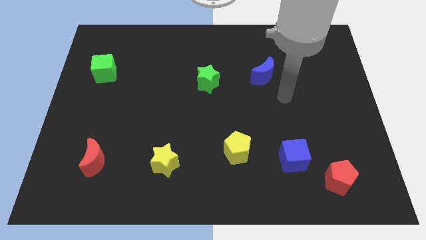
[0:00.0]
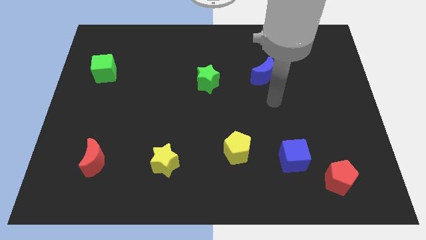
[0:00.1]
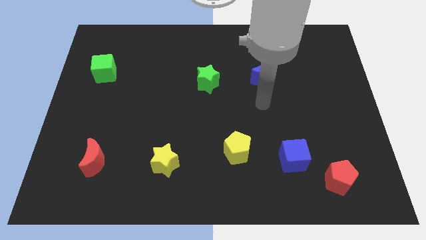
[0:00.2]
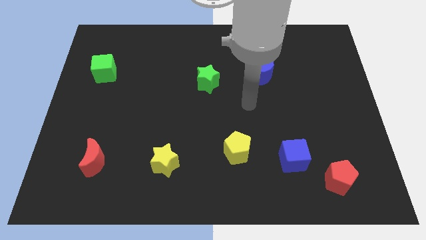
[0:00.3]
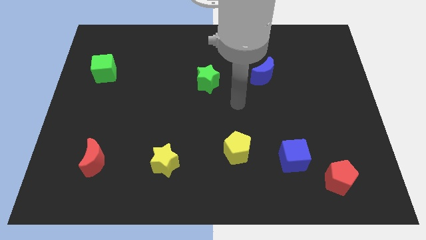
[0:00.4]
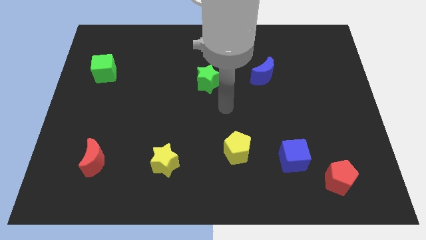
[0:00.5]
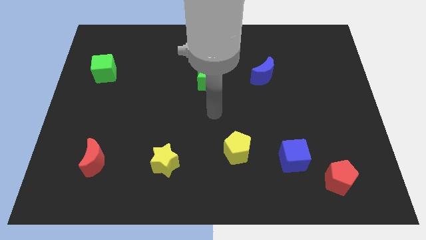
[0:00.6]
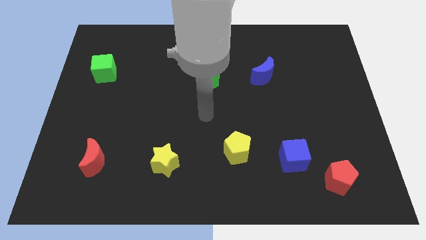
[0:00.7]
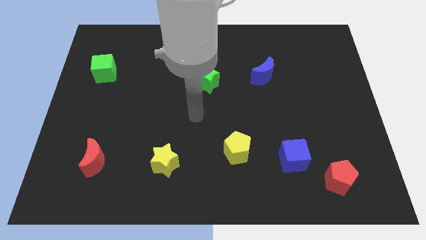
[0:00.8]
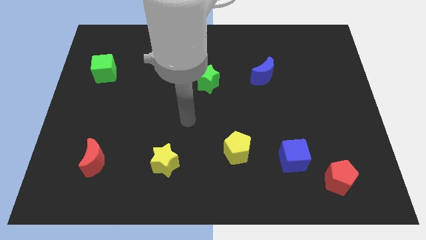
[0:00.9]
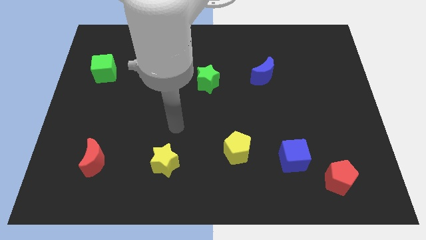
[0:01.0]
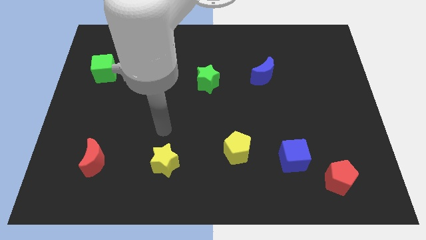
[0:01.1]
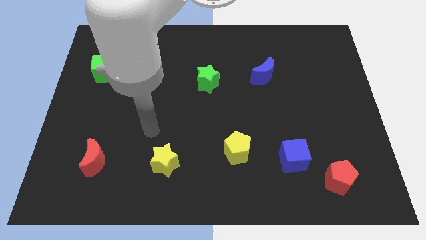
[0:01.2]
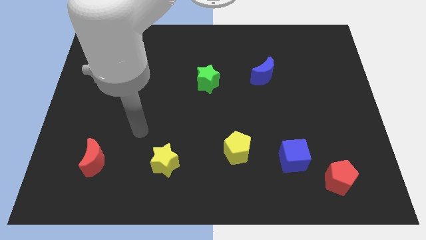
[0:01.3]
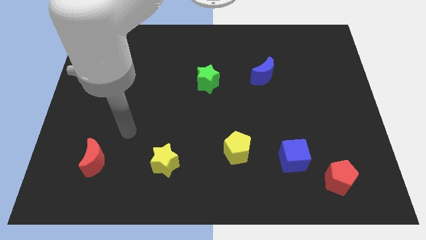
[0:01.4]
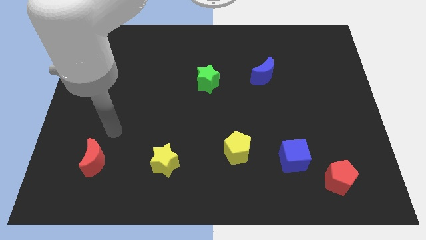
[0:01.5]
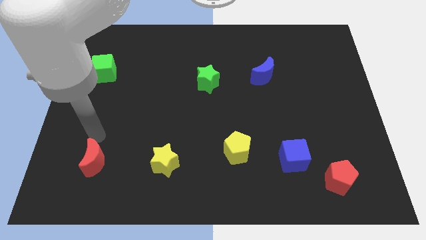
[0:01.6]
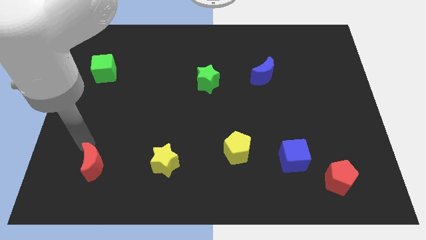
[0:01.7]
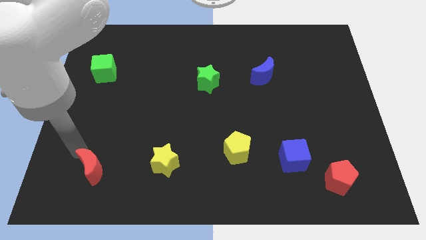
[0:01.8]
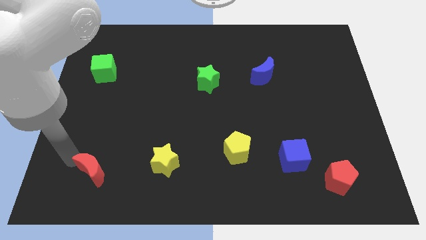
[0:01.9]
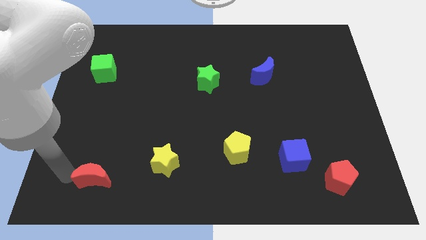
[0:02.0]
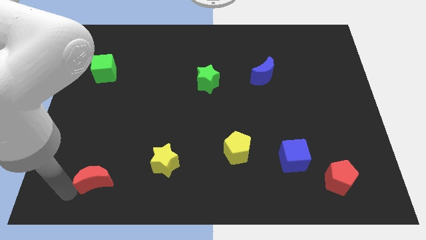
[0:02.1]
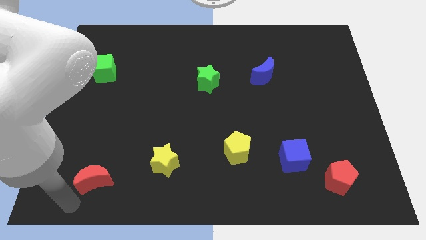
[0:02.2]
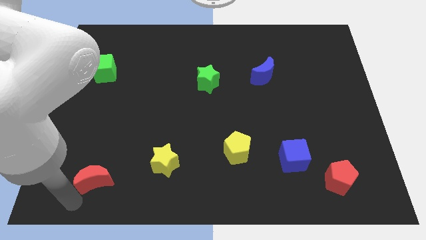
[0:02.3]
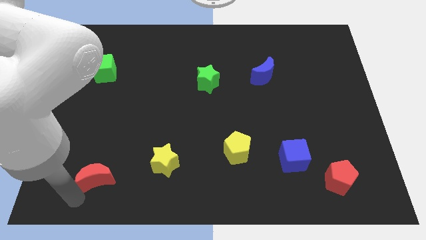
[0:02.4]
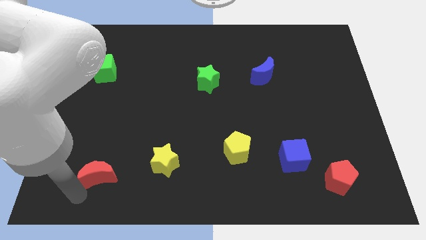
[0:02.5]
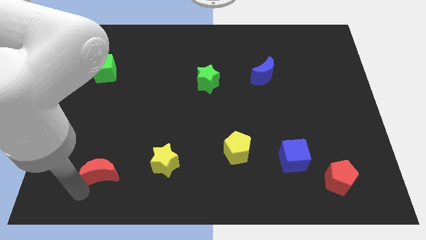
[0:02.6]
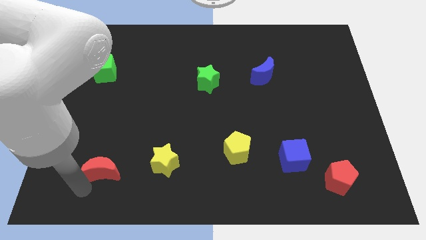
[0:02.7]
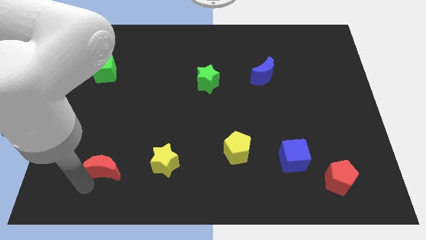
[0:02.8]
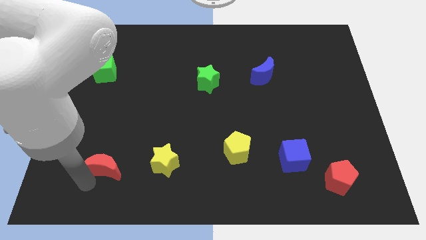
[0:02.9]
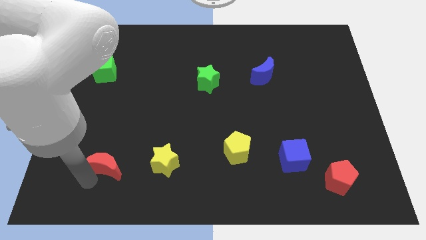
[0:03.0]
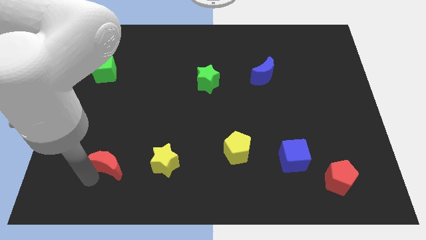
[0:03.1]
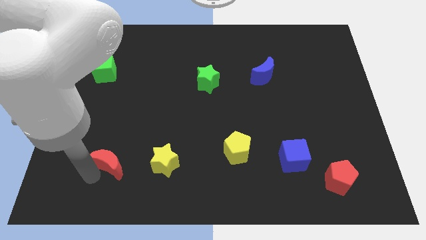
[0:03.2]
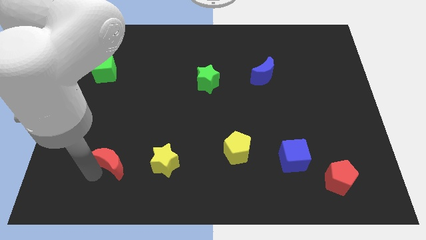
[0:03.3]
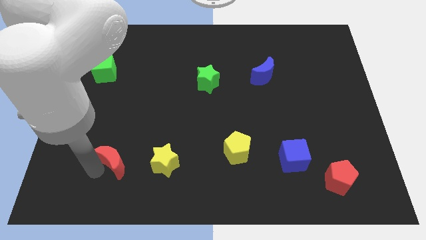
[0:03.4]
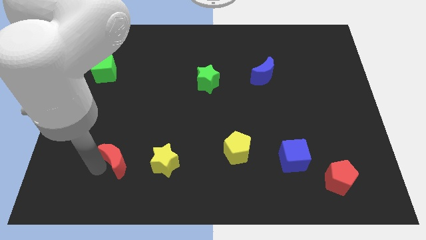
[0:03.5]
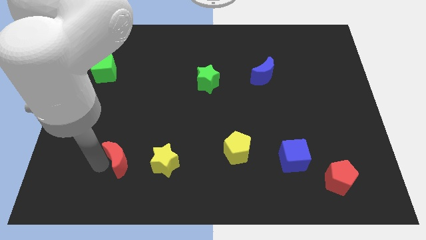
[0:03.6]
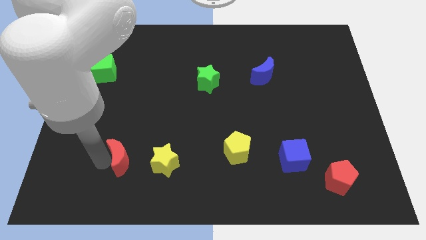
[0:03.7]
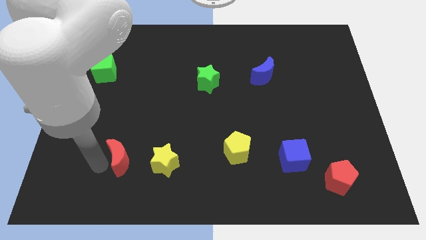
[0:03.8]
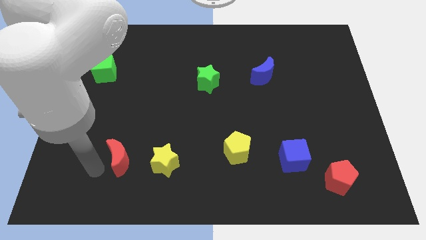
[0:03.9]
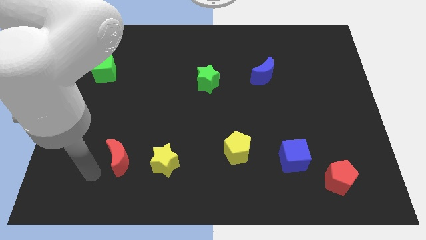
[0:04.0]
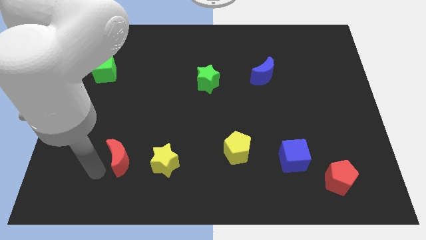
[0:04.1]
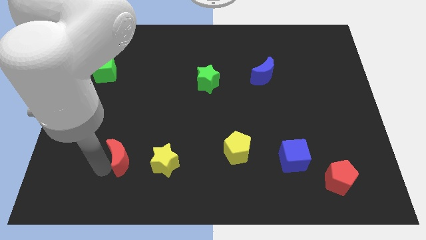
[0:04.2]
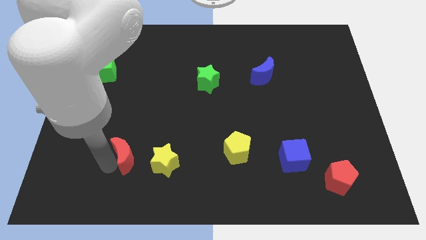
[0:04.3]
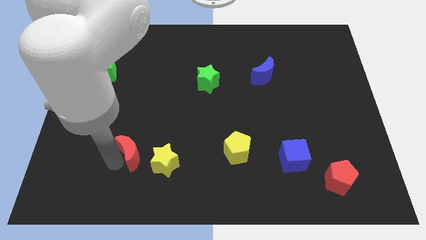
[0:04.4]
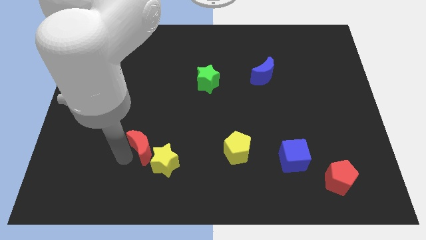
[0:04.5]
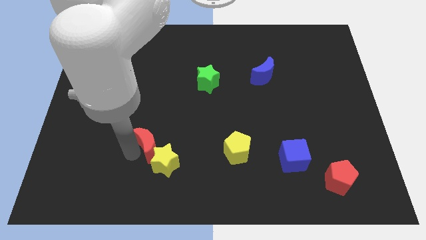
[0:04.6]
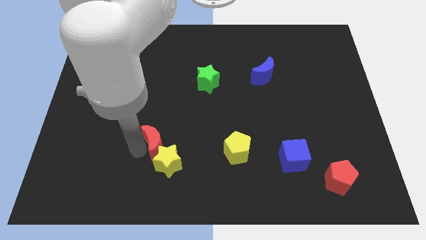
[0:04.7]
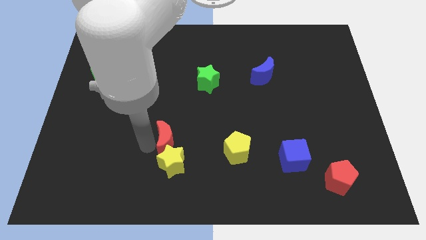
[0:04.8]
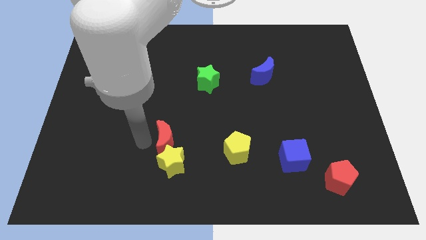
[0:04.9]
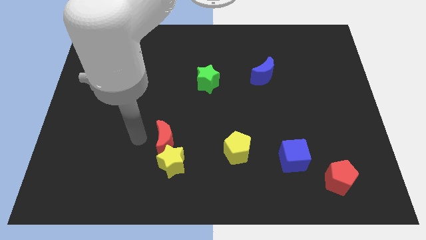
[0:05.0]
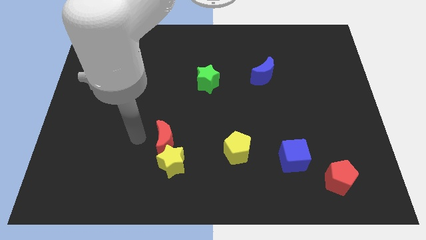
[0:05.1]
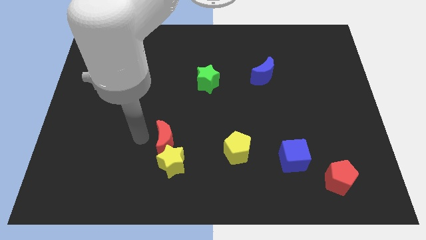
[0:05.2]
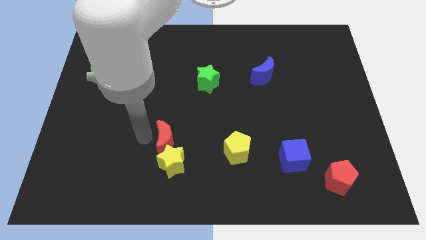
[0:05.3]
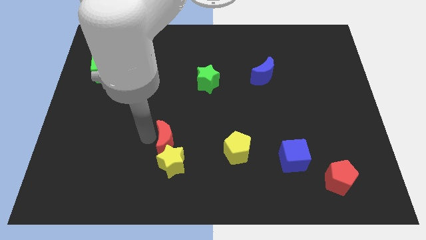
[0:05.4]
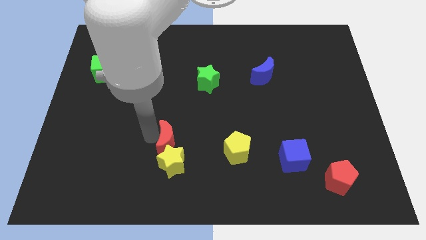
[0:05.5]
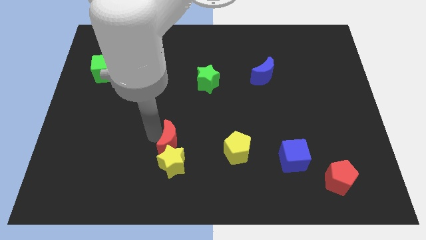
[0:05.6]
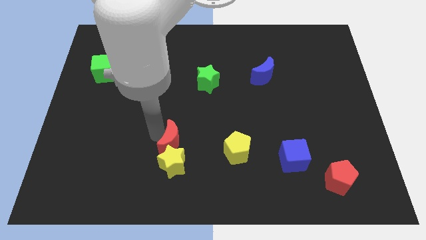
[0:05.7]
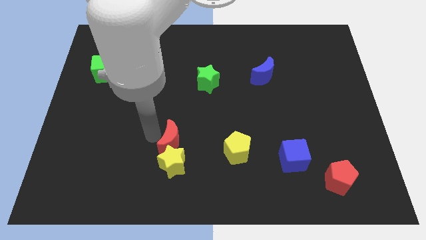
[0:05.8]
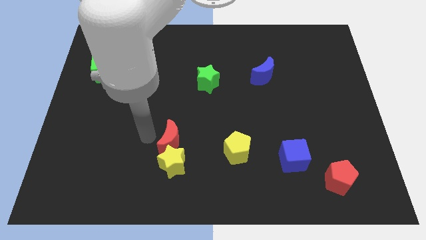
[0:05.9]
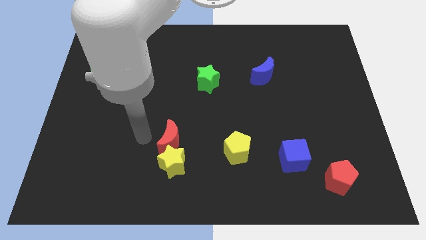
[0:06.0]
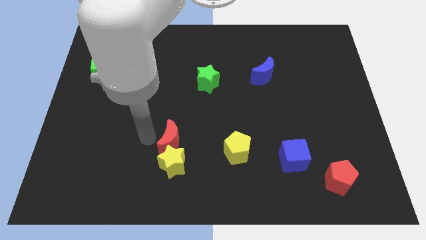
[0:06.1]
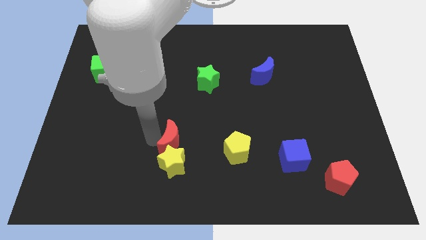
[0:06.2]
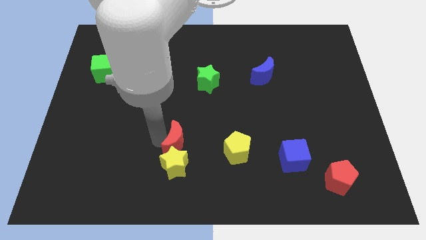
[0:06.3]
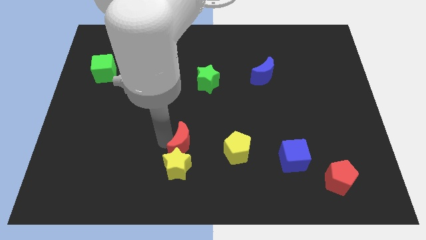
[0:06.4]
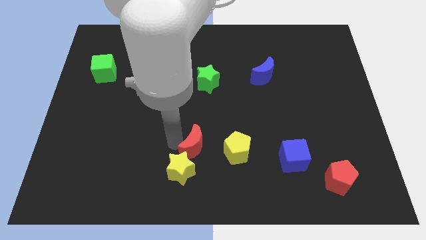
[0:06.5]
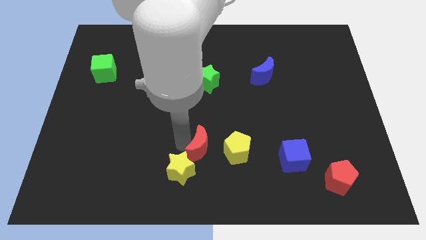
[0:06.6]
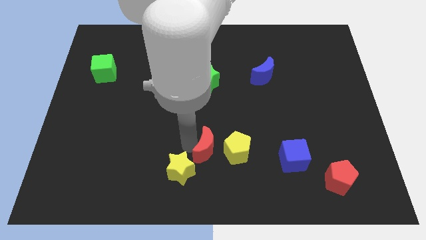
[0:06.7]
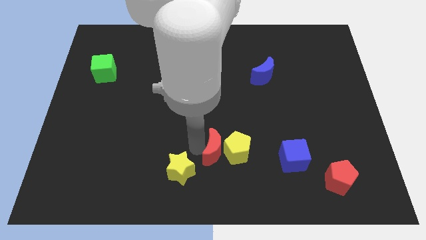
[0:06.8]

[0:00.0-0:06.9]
push the red moon next to the yellow pentagon

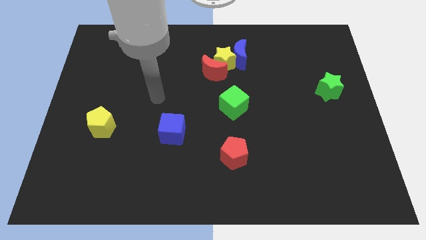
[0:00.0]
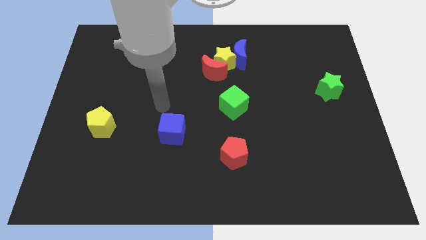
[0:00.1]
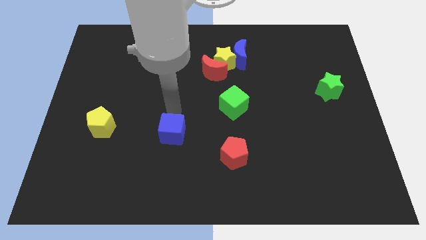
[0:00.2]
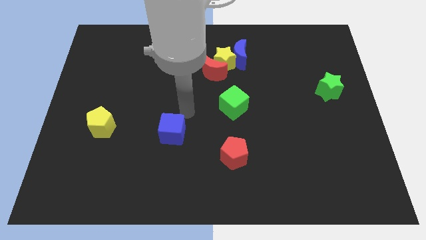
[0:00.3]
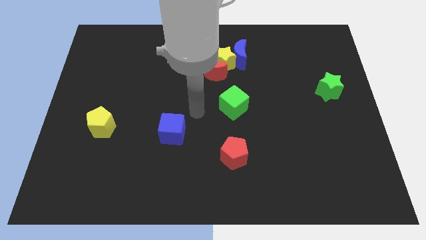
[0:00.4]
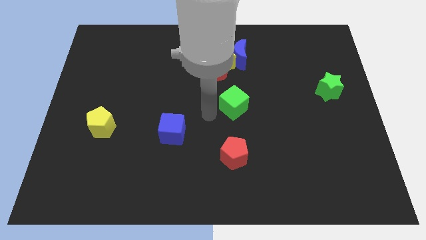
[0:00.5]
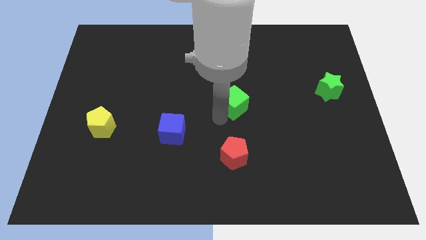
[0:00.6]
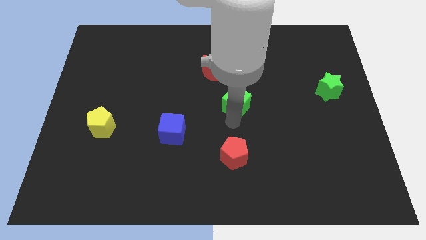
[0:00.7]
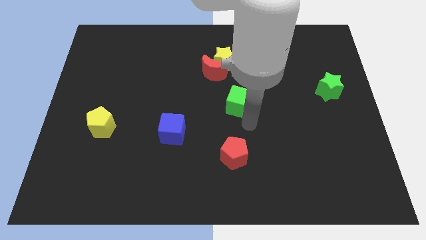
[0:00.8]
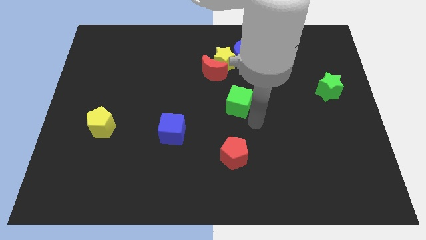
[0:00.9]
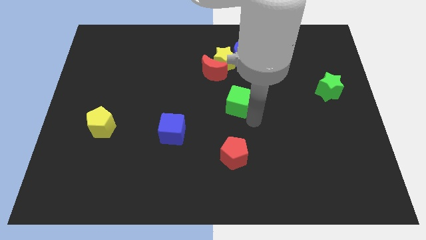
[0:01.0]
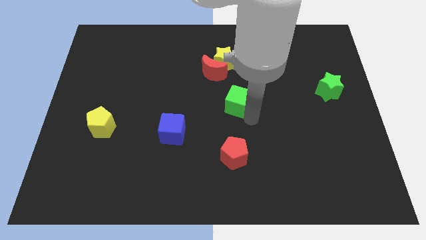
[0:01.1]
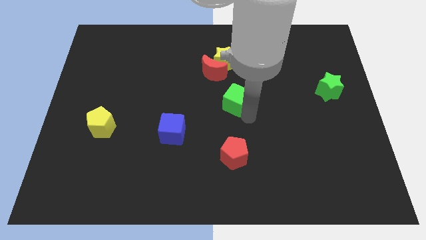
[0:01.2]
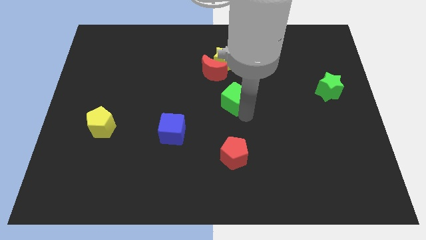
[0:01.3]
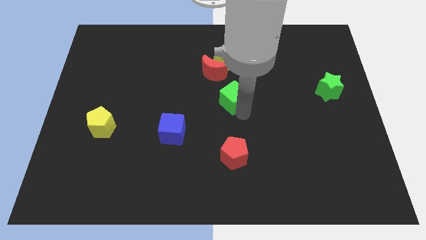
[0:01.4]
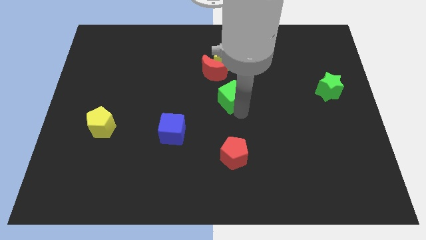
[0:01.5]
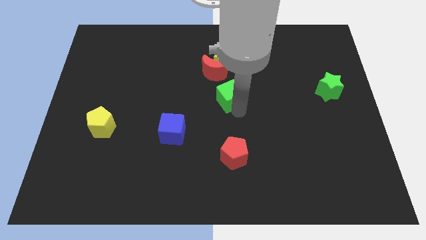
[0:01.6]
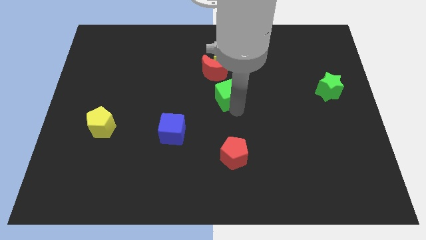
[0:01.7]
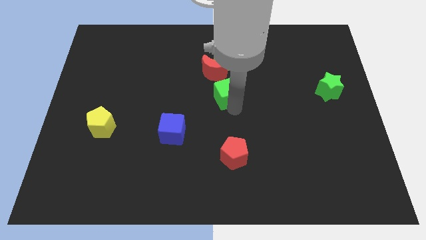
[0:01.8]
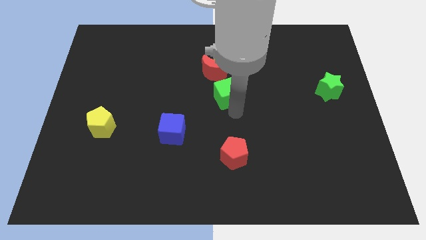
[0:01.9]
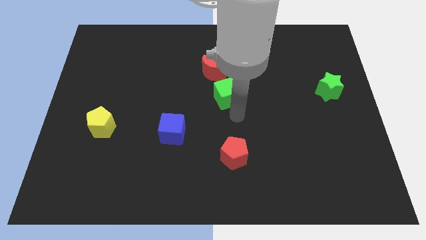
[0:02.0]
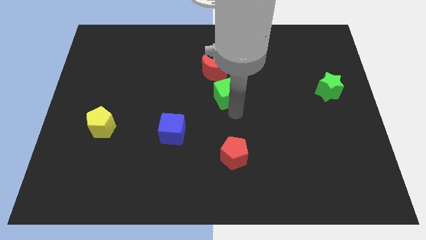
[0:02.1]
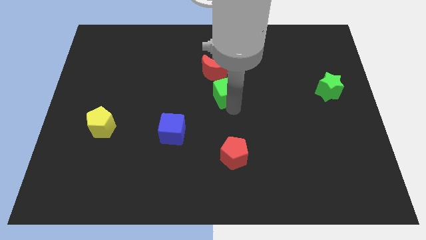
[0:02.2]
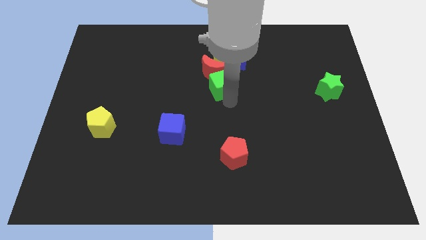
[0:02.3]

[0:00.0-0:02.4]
slide the green cube next to the red moon
